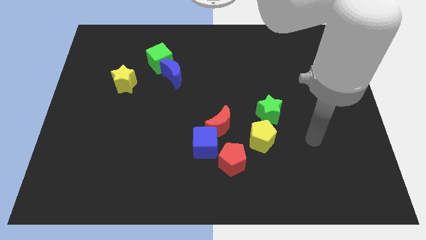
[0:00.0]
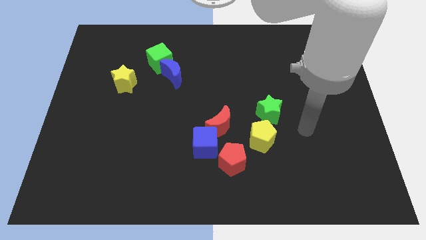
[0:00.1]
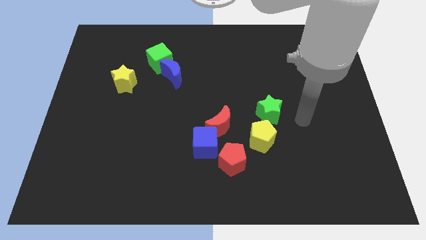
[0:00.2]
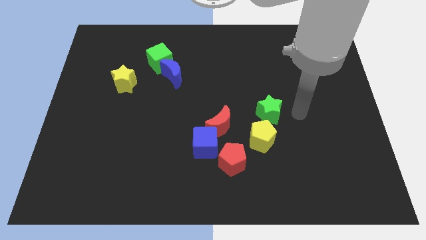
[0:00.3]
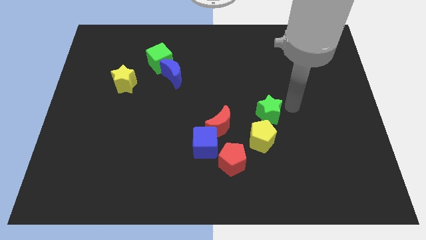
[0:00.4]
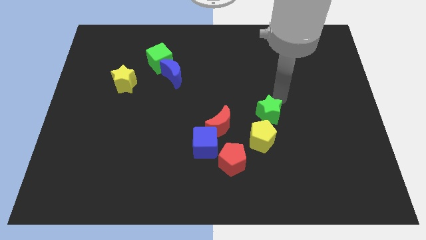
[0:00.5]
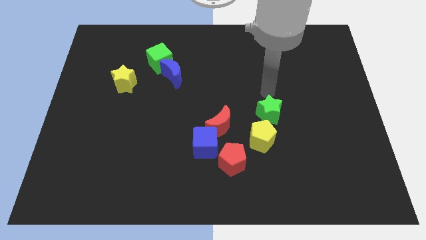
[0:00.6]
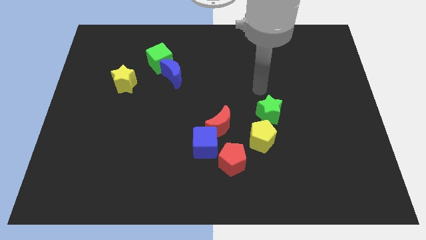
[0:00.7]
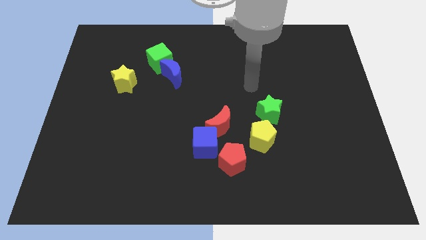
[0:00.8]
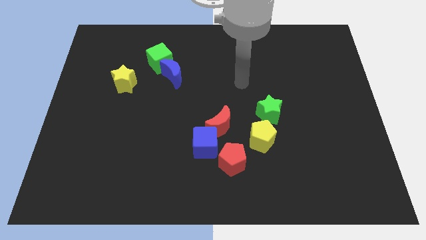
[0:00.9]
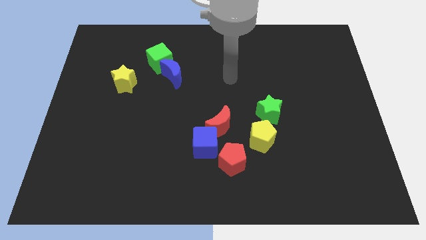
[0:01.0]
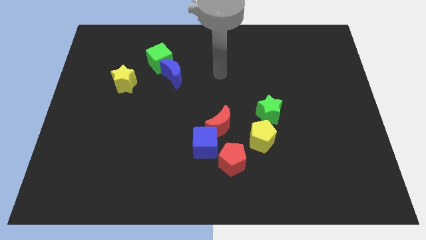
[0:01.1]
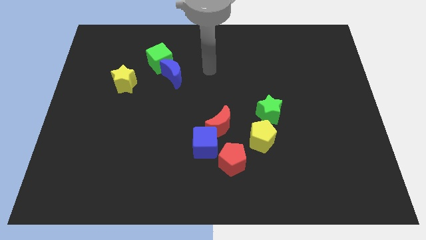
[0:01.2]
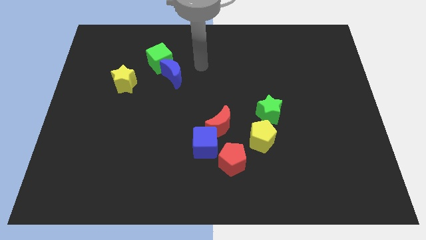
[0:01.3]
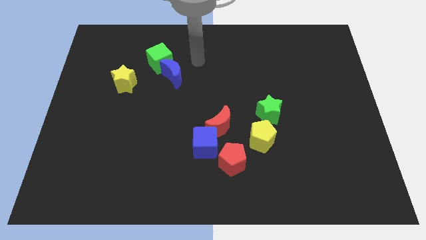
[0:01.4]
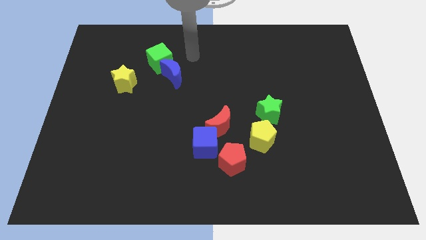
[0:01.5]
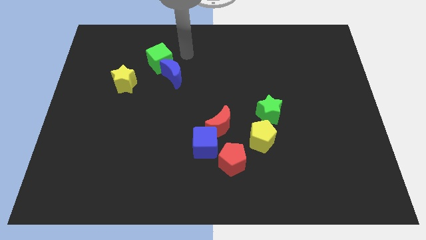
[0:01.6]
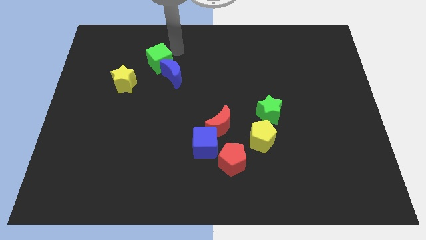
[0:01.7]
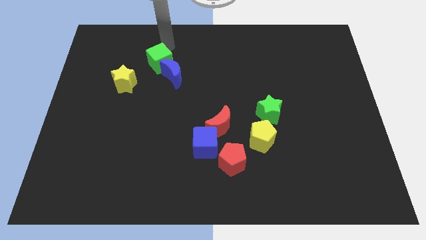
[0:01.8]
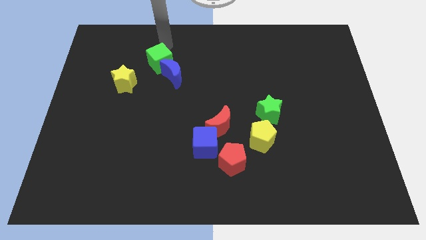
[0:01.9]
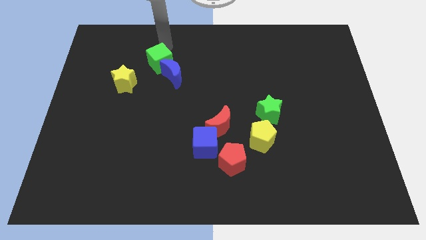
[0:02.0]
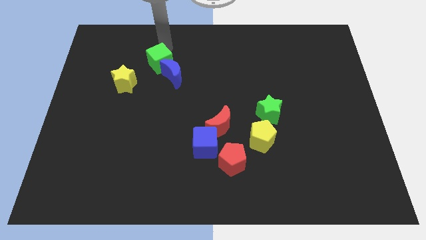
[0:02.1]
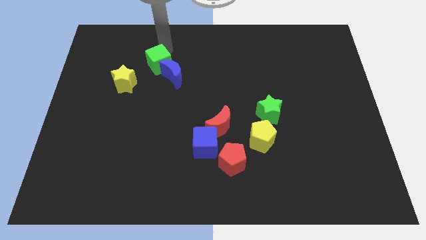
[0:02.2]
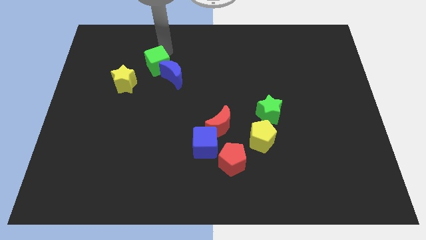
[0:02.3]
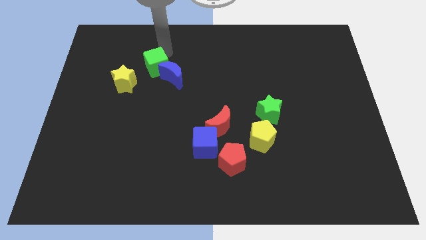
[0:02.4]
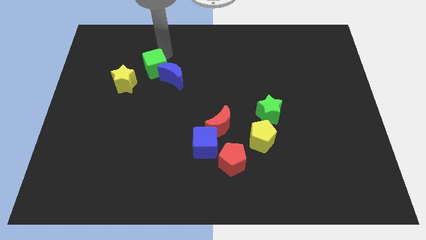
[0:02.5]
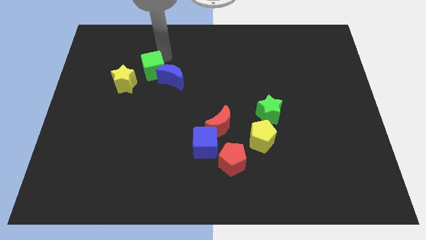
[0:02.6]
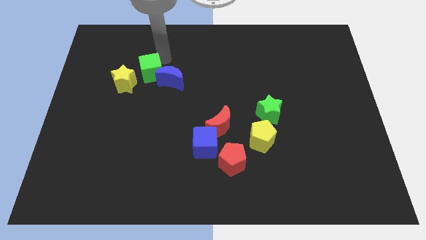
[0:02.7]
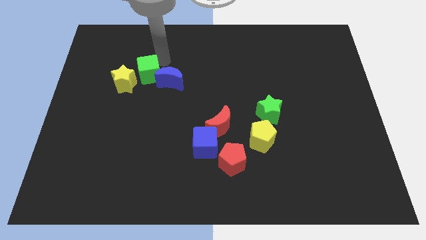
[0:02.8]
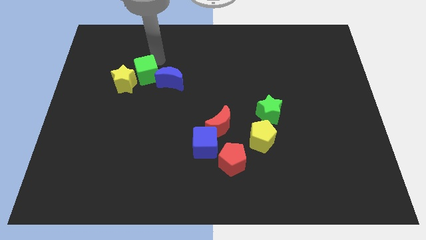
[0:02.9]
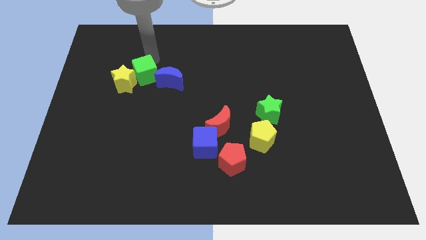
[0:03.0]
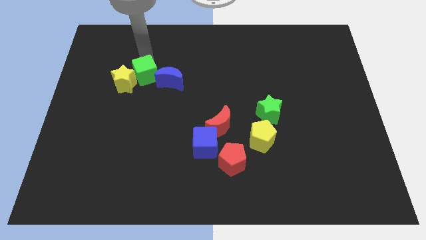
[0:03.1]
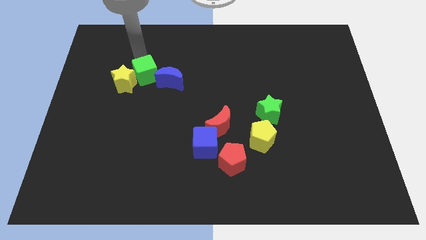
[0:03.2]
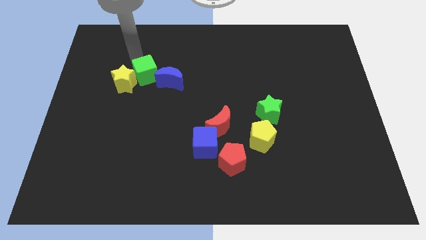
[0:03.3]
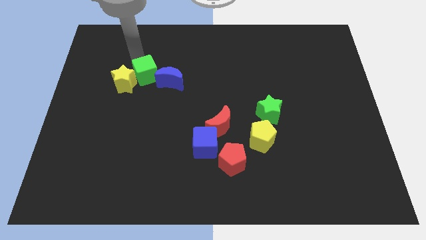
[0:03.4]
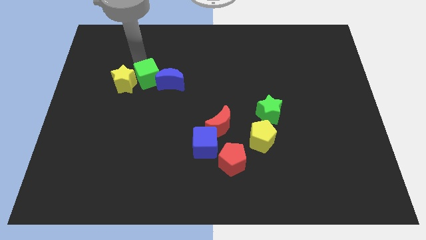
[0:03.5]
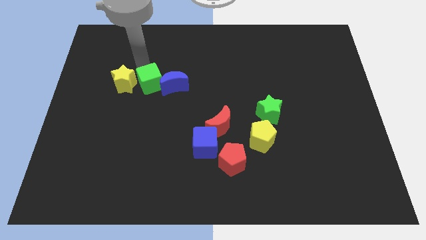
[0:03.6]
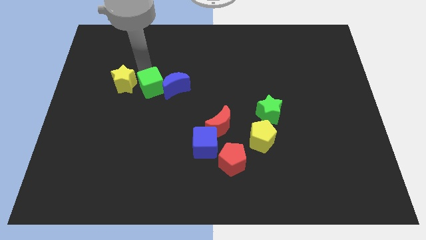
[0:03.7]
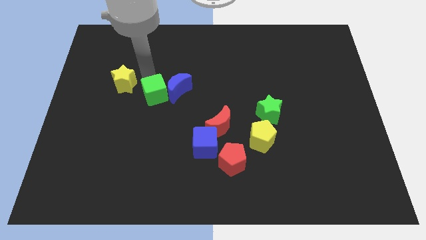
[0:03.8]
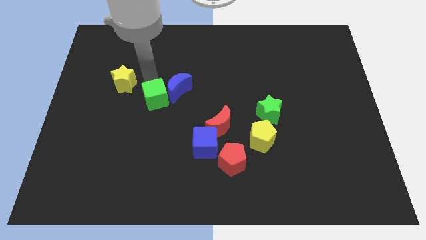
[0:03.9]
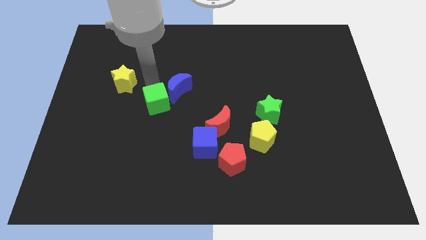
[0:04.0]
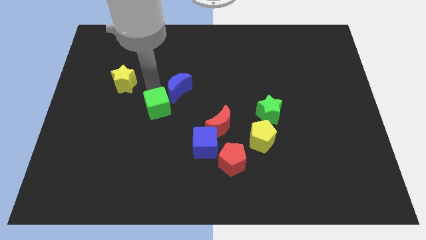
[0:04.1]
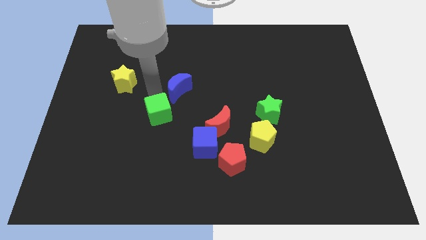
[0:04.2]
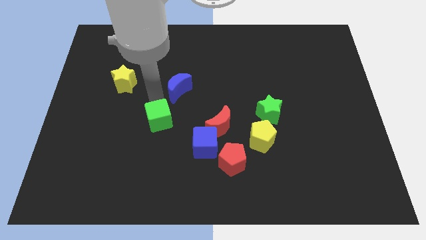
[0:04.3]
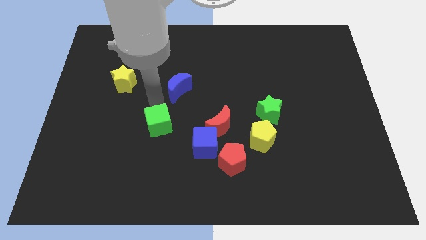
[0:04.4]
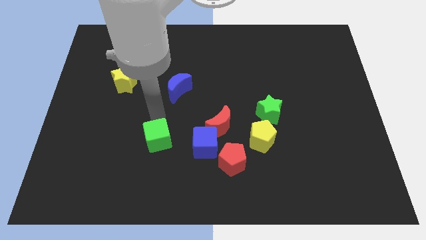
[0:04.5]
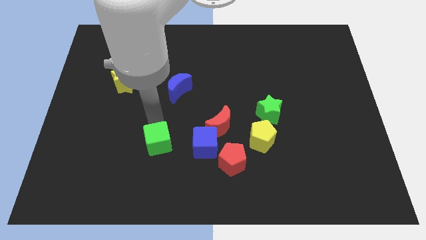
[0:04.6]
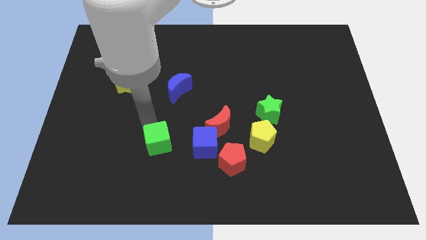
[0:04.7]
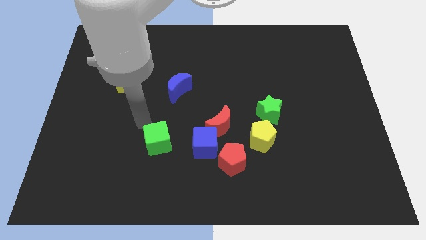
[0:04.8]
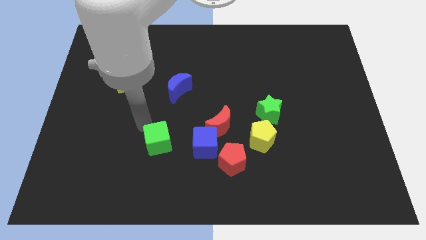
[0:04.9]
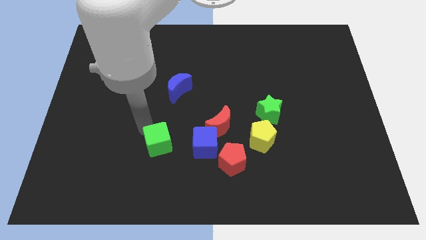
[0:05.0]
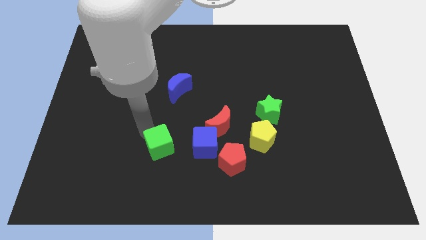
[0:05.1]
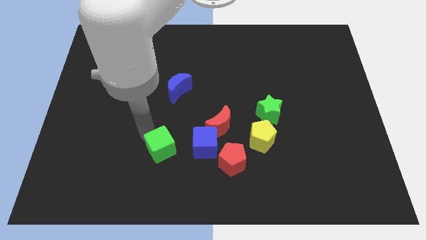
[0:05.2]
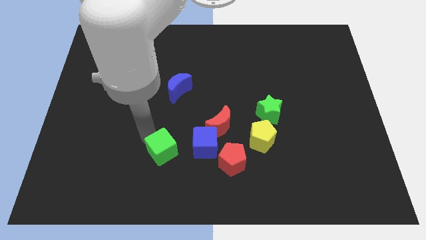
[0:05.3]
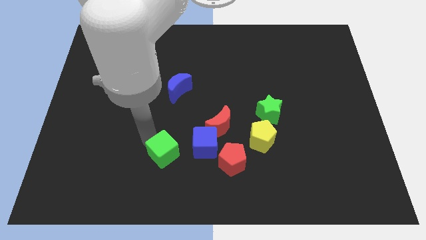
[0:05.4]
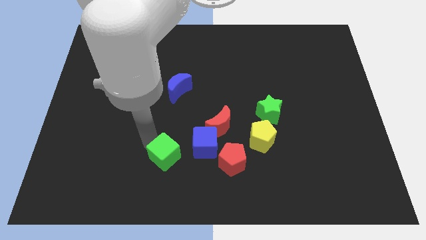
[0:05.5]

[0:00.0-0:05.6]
push the green cube to the bottom left of the blue cube
